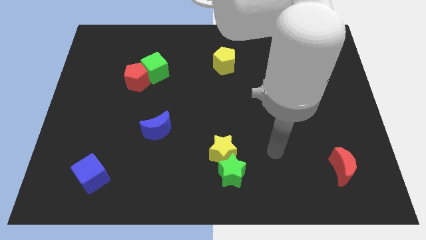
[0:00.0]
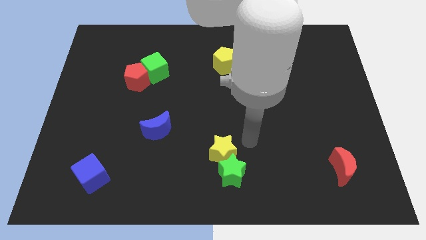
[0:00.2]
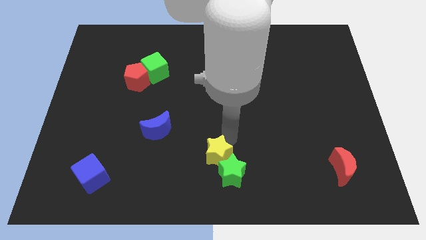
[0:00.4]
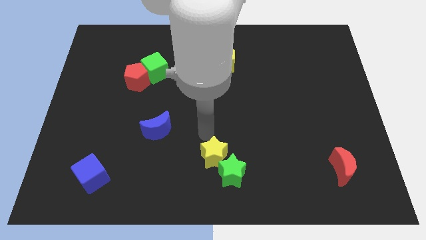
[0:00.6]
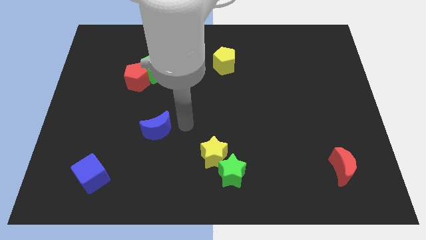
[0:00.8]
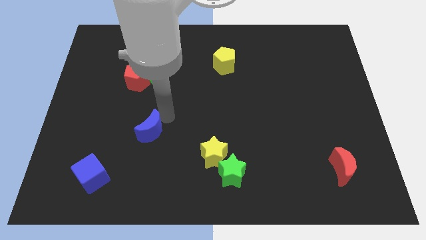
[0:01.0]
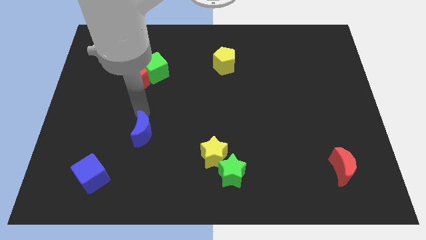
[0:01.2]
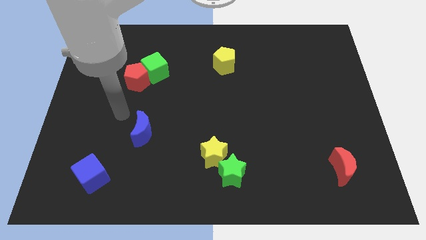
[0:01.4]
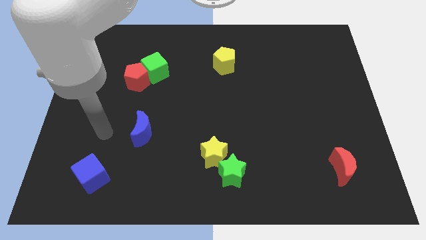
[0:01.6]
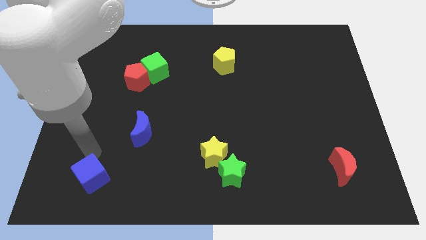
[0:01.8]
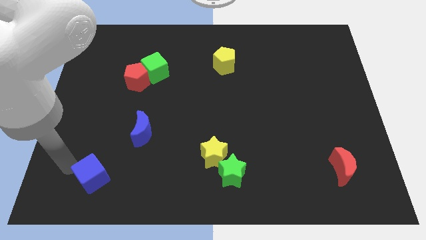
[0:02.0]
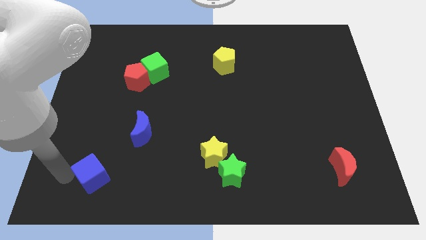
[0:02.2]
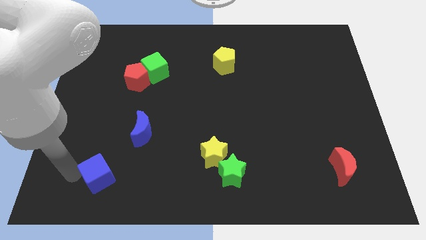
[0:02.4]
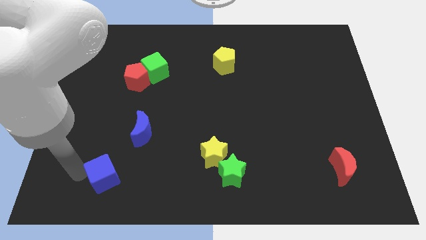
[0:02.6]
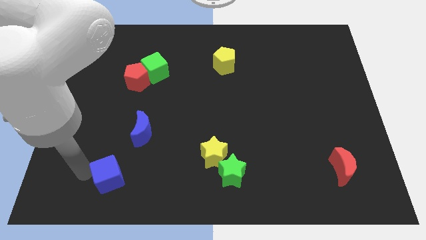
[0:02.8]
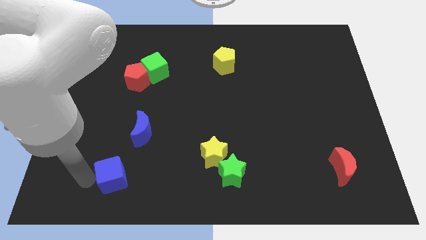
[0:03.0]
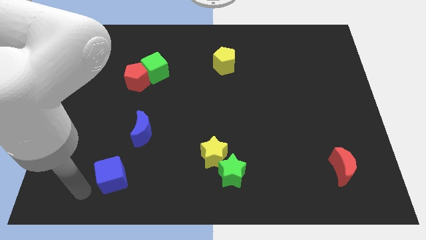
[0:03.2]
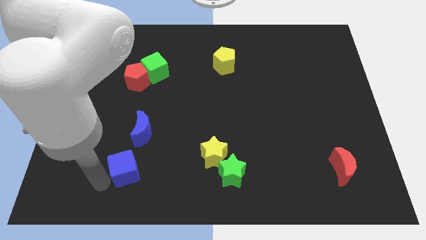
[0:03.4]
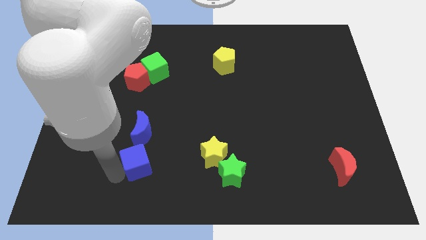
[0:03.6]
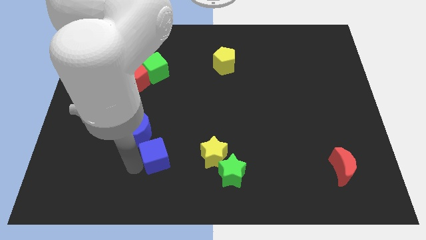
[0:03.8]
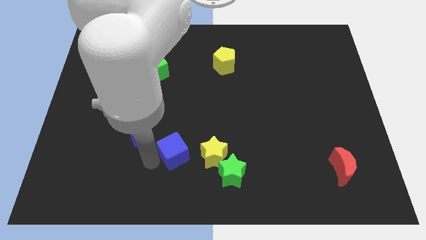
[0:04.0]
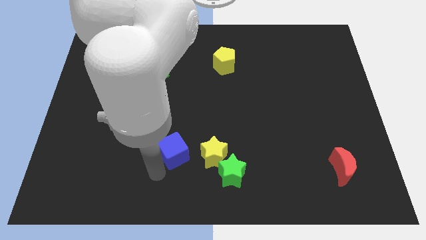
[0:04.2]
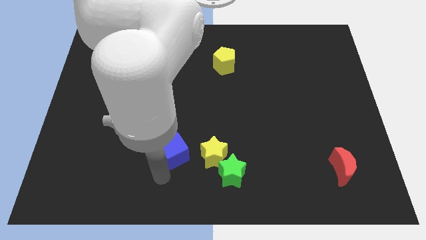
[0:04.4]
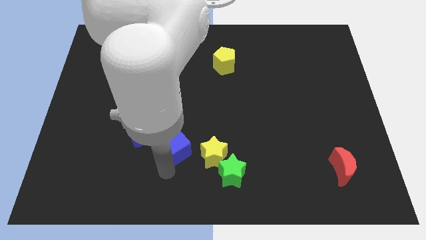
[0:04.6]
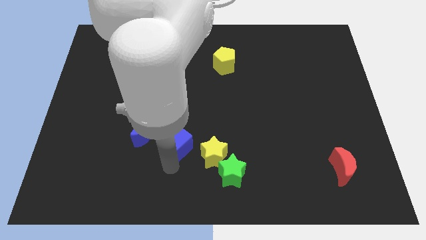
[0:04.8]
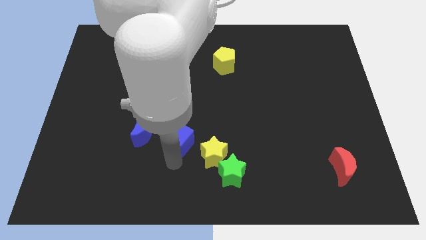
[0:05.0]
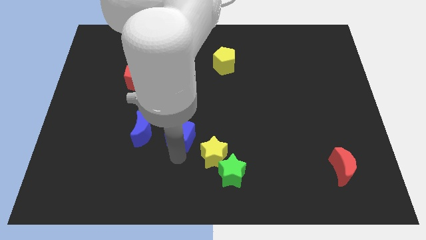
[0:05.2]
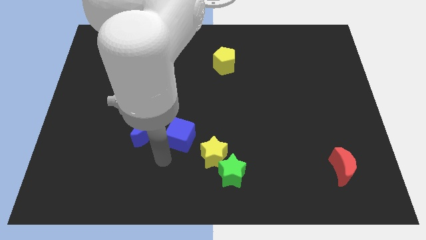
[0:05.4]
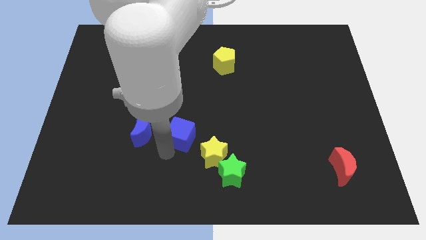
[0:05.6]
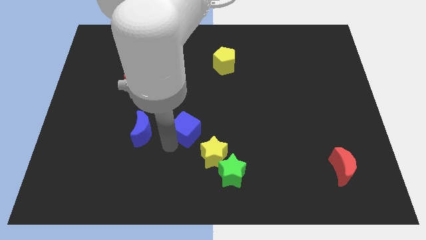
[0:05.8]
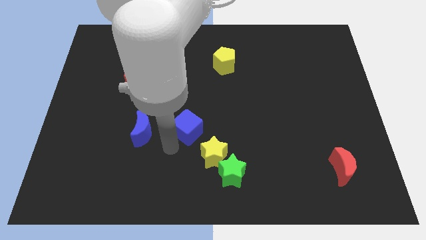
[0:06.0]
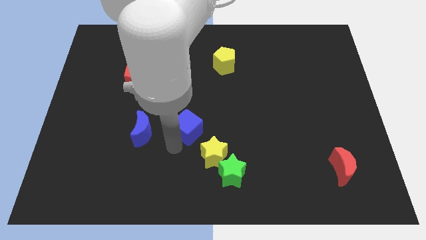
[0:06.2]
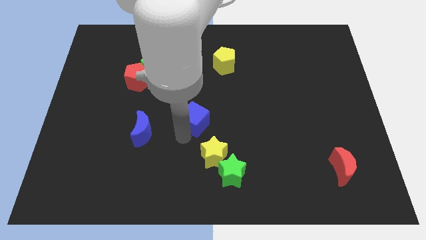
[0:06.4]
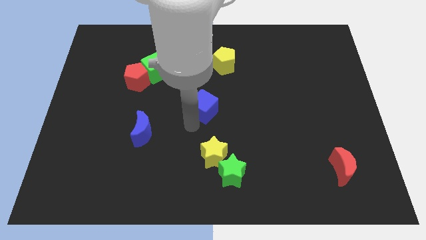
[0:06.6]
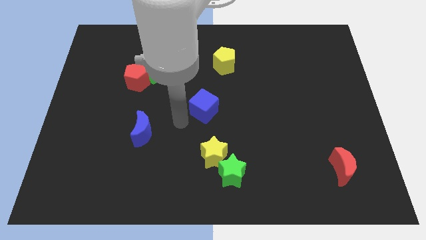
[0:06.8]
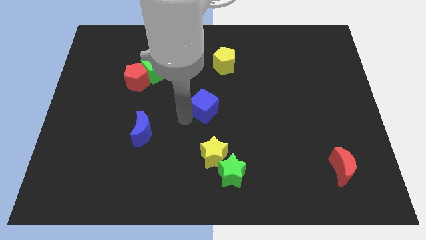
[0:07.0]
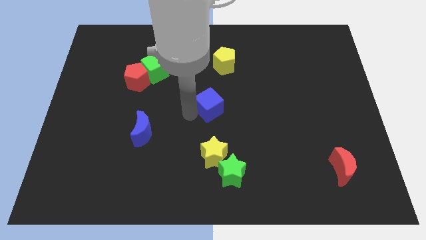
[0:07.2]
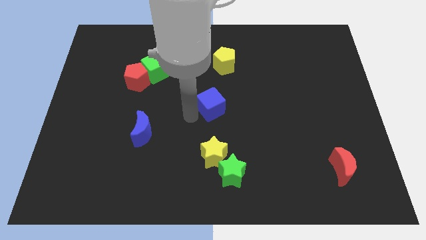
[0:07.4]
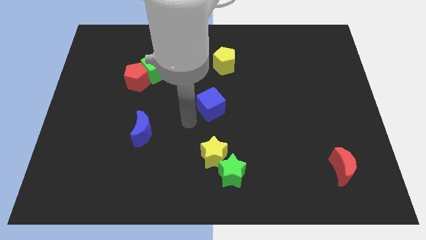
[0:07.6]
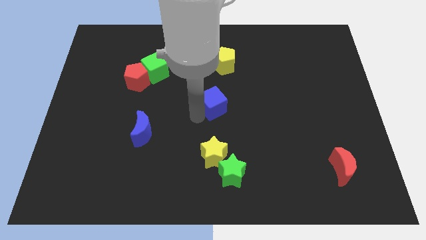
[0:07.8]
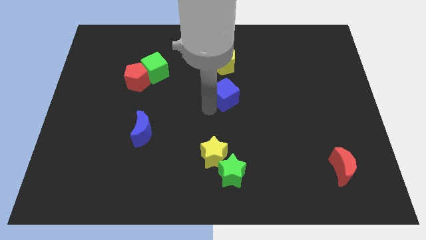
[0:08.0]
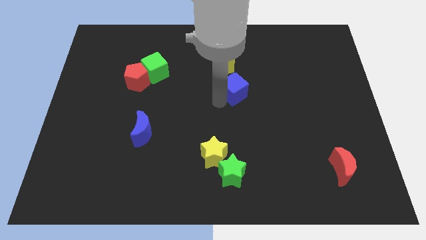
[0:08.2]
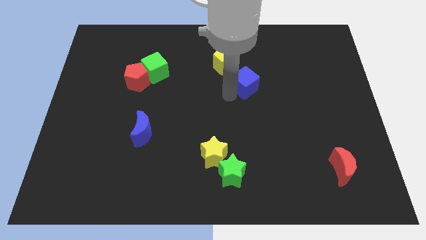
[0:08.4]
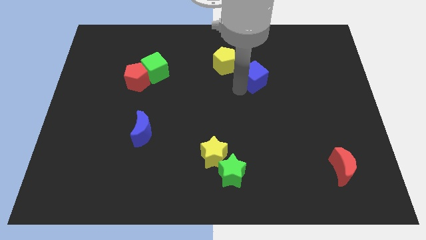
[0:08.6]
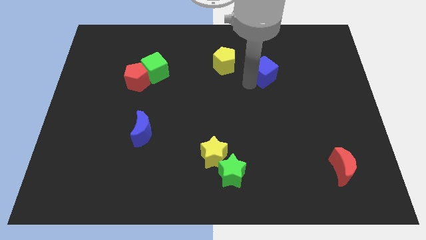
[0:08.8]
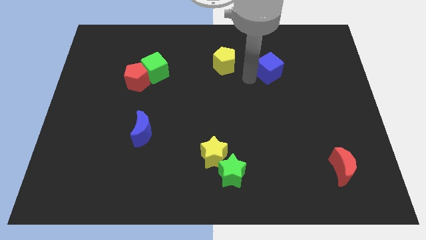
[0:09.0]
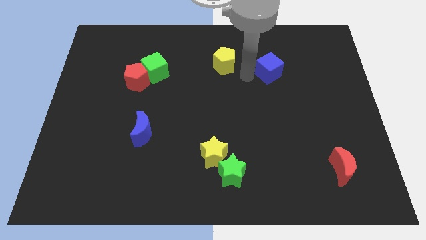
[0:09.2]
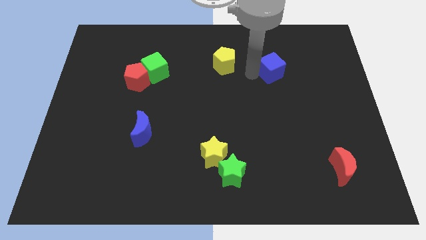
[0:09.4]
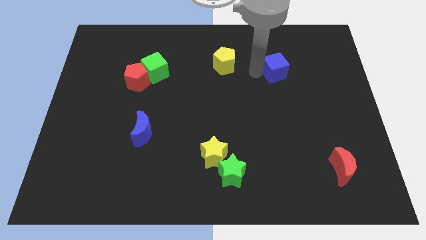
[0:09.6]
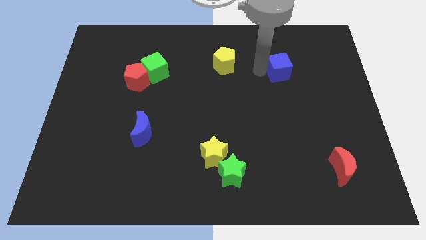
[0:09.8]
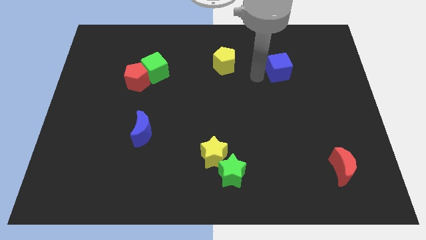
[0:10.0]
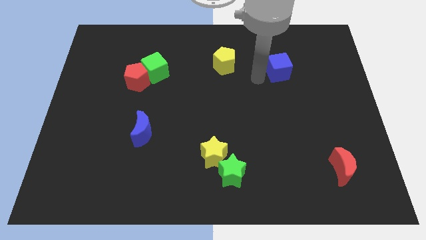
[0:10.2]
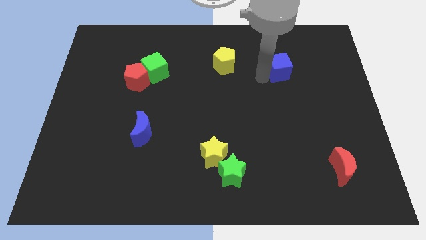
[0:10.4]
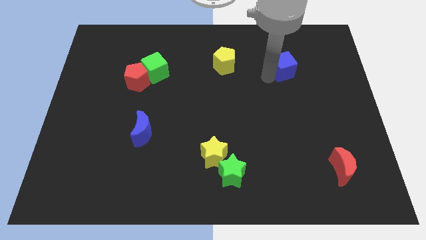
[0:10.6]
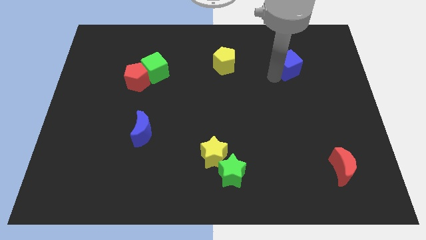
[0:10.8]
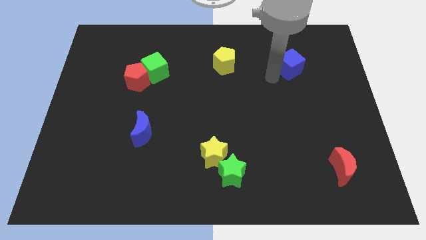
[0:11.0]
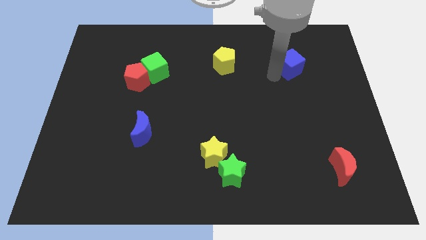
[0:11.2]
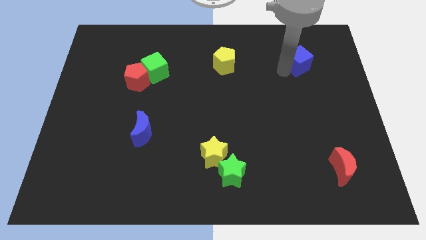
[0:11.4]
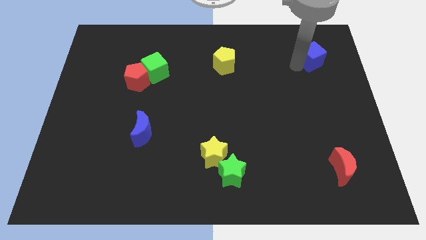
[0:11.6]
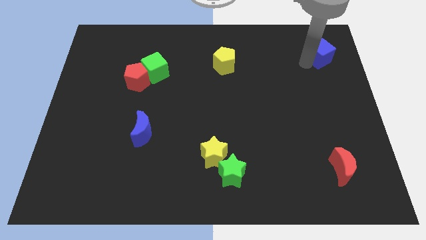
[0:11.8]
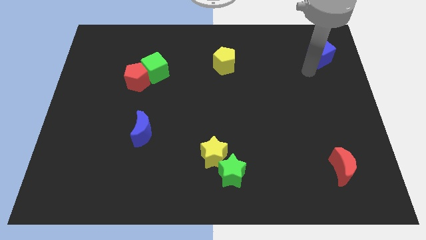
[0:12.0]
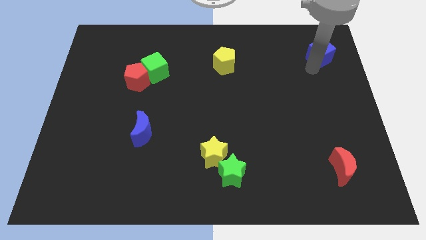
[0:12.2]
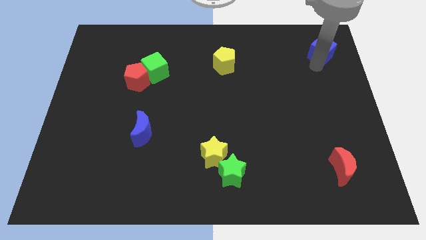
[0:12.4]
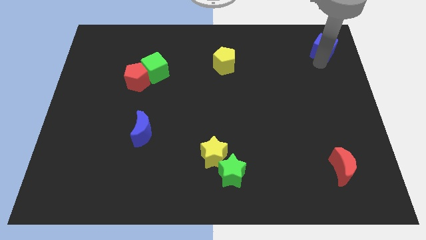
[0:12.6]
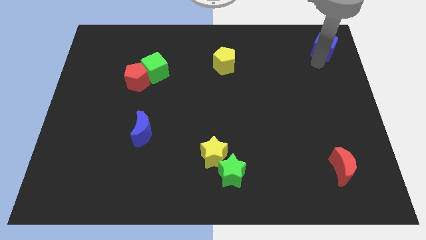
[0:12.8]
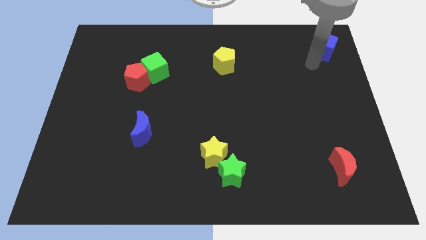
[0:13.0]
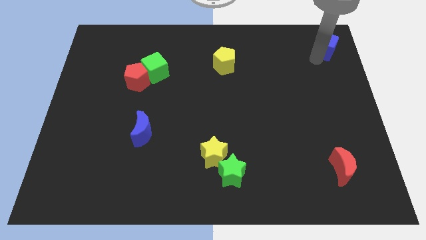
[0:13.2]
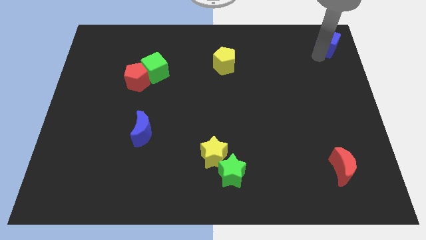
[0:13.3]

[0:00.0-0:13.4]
slide the blue cube to the top right
